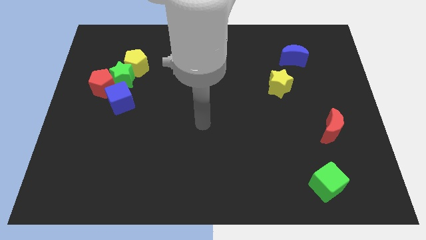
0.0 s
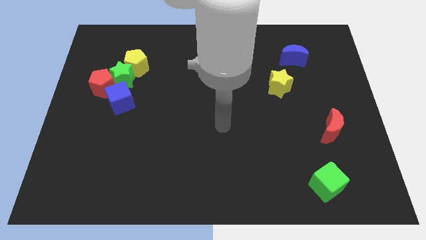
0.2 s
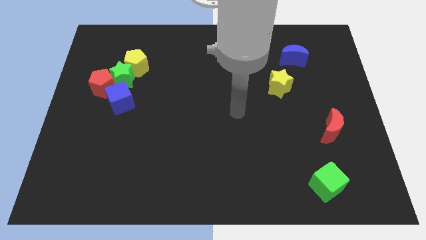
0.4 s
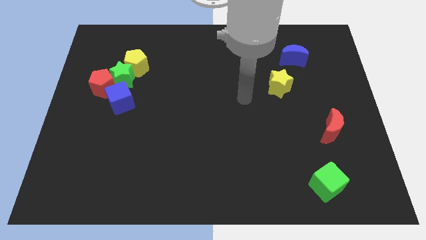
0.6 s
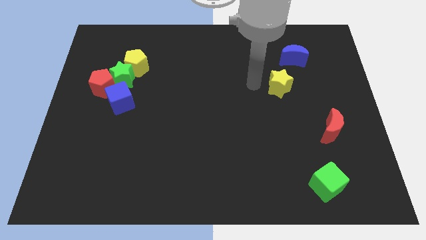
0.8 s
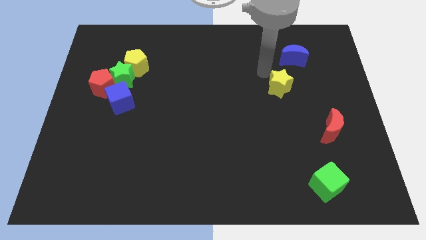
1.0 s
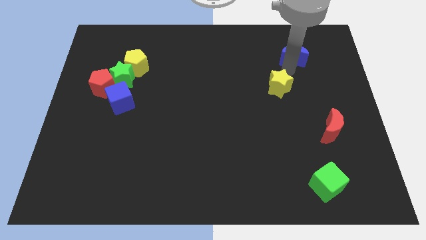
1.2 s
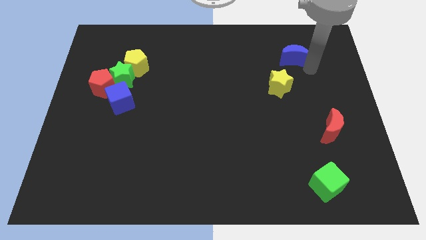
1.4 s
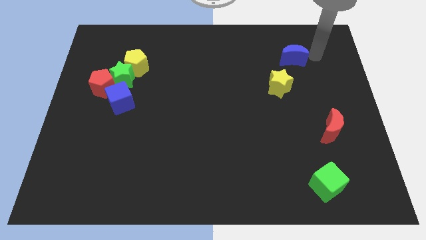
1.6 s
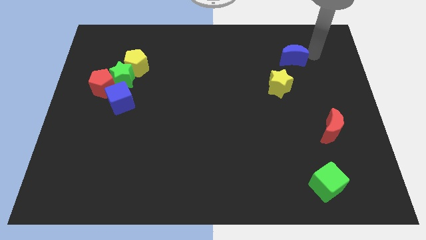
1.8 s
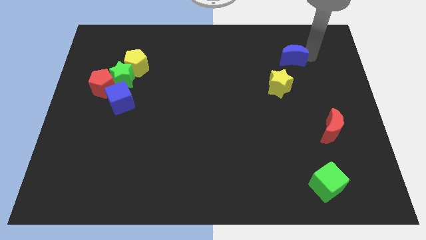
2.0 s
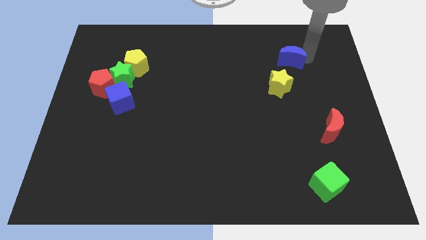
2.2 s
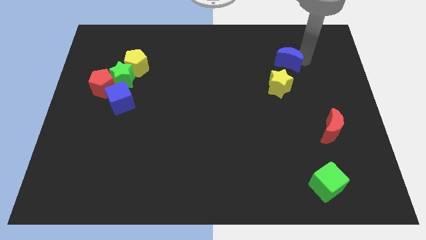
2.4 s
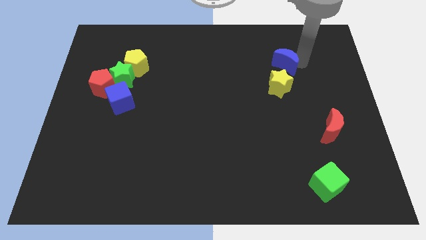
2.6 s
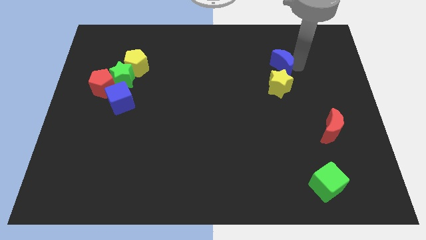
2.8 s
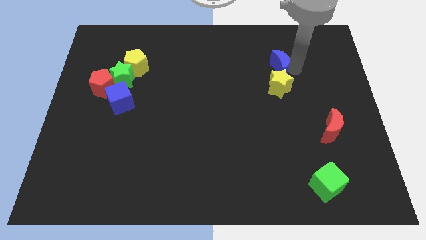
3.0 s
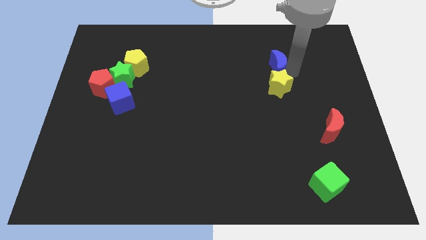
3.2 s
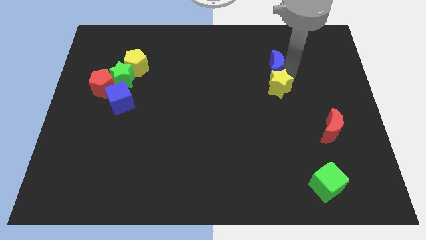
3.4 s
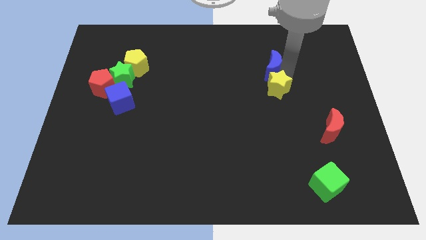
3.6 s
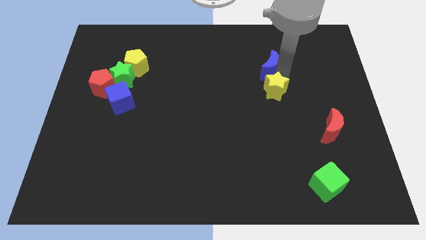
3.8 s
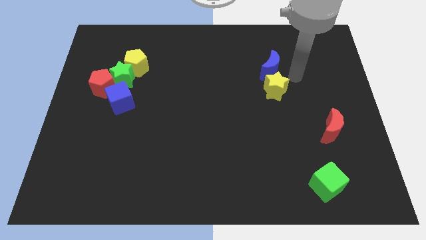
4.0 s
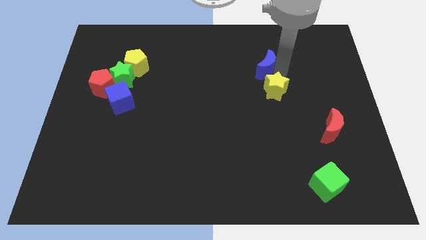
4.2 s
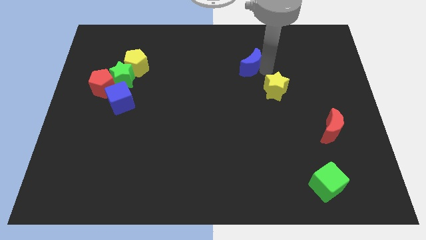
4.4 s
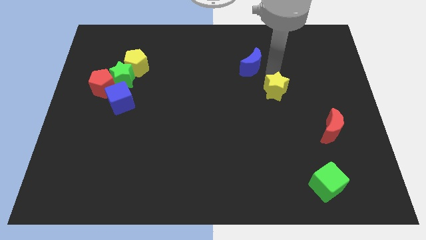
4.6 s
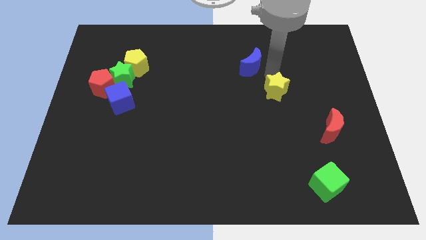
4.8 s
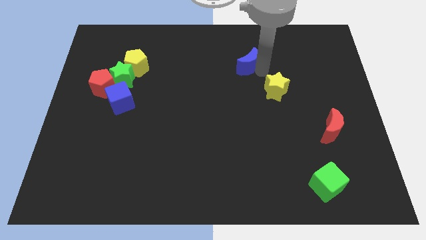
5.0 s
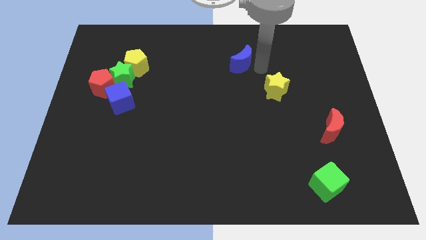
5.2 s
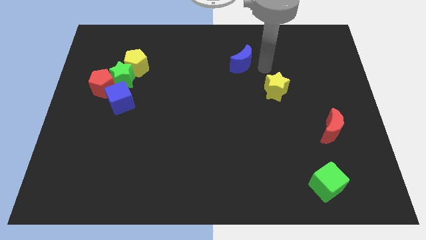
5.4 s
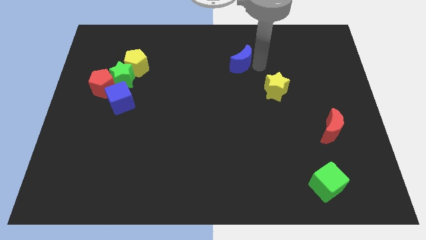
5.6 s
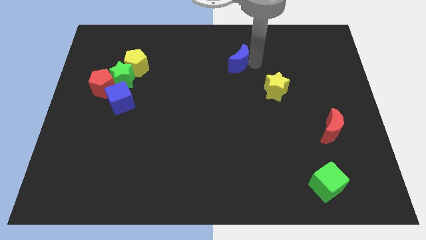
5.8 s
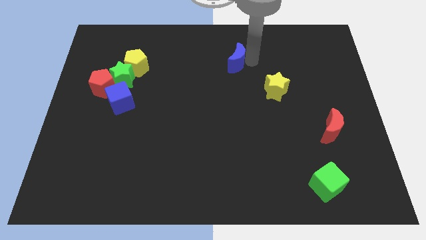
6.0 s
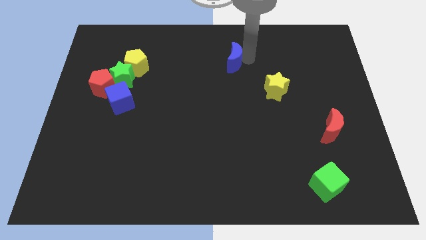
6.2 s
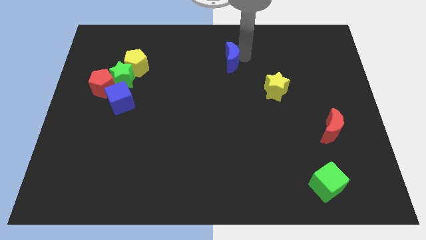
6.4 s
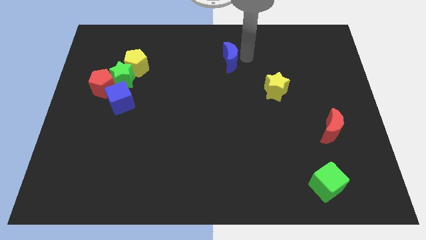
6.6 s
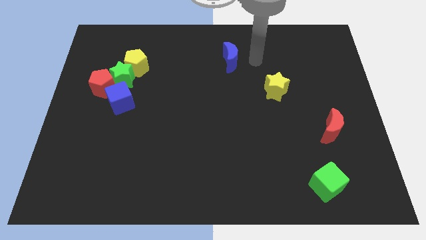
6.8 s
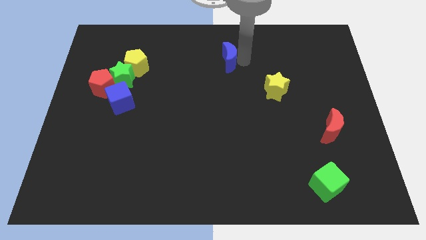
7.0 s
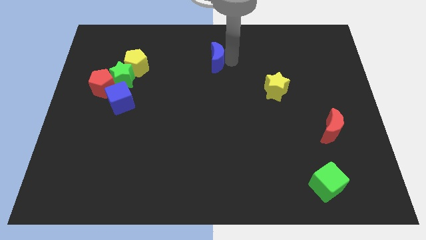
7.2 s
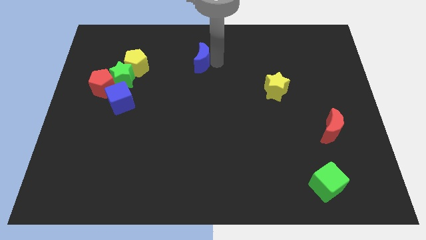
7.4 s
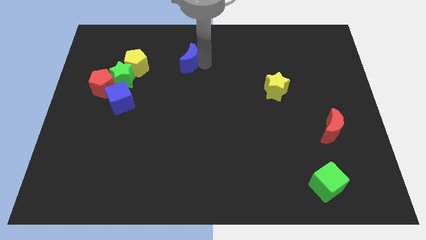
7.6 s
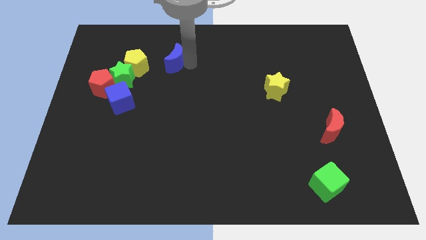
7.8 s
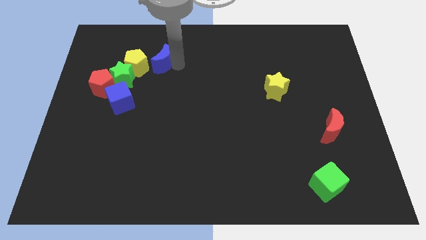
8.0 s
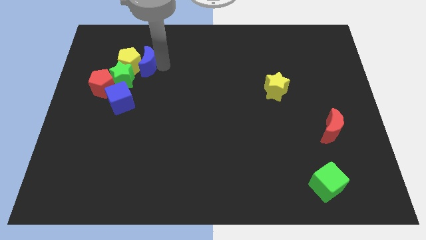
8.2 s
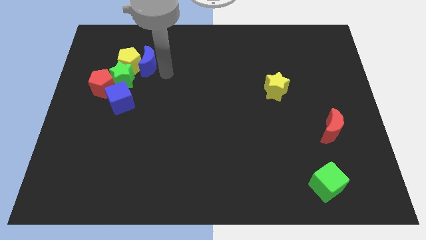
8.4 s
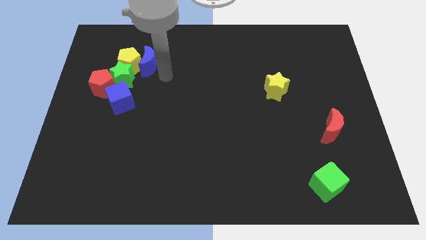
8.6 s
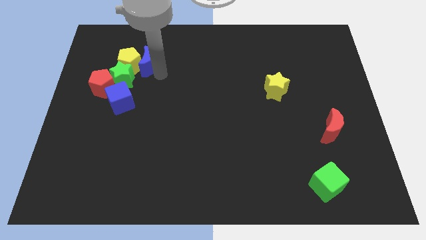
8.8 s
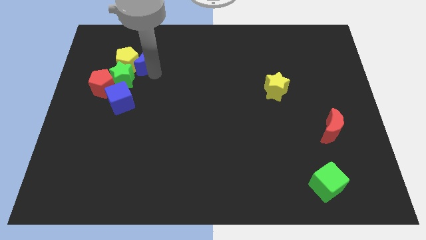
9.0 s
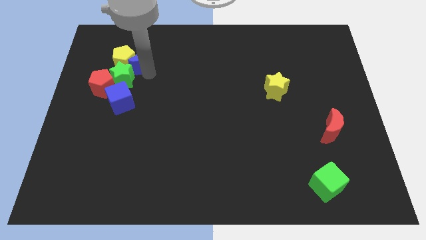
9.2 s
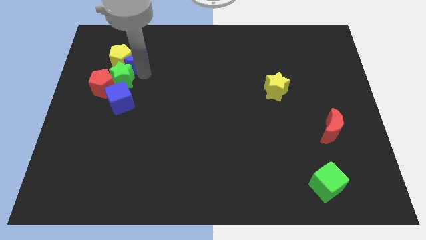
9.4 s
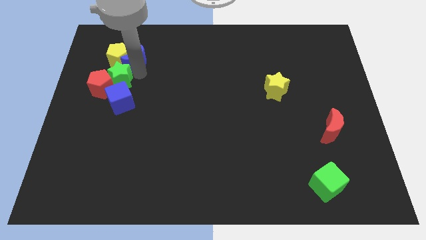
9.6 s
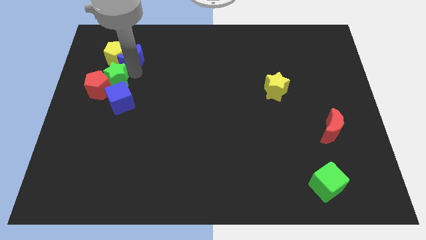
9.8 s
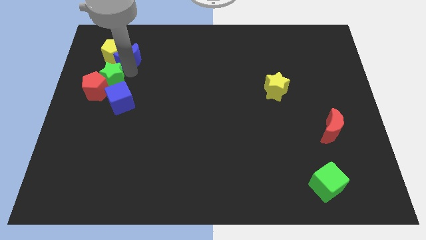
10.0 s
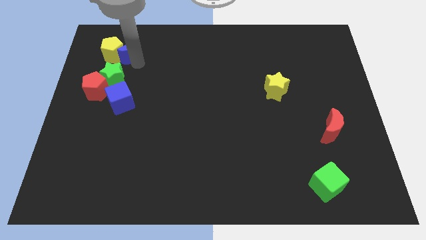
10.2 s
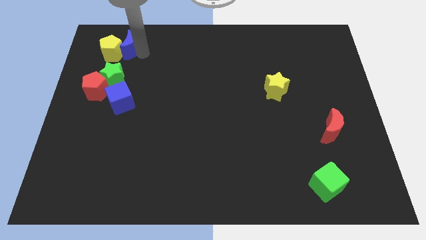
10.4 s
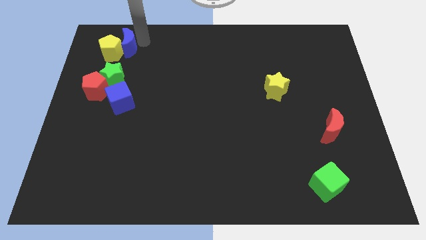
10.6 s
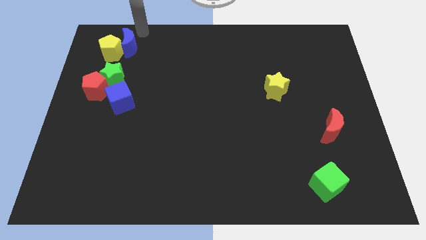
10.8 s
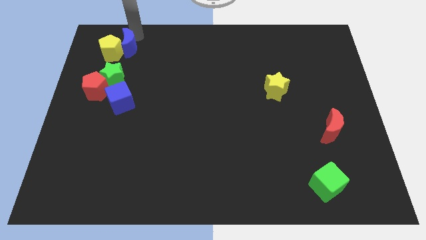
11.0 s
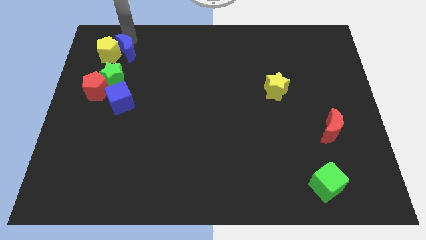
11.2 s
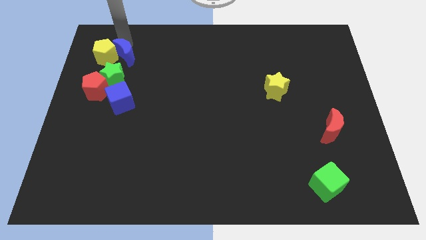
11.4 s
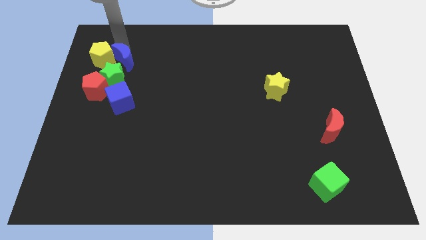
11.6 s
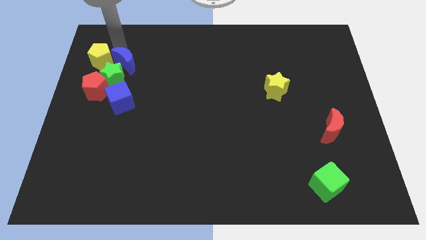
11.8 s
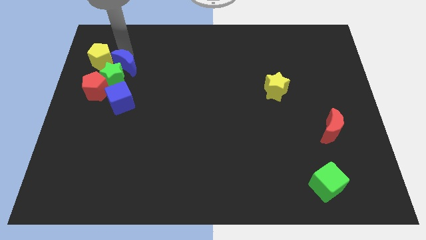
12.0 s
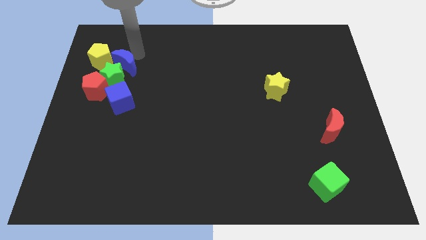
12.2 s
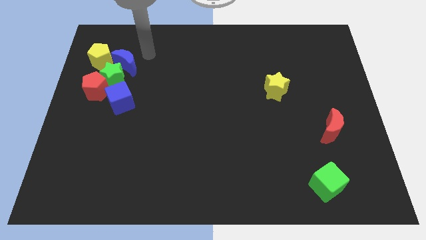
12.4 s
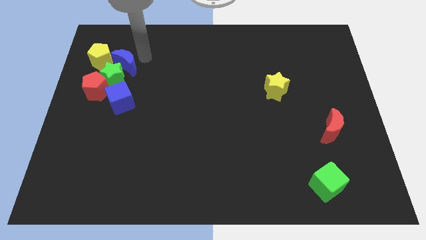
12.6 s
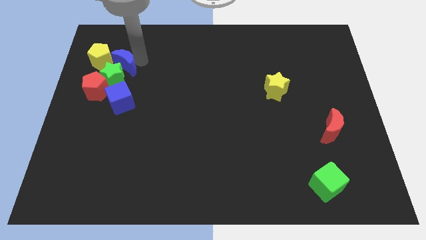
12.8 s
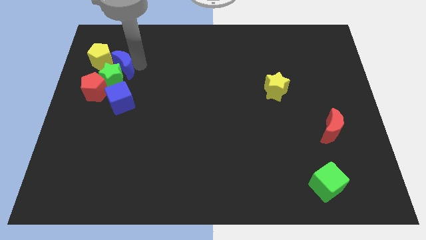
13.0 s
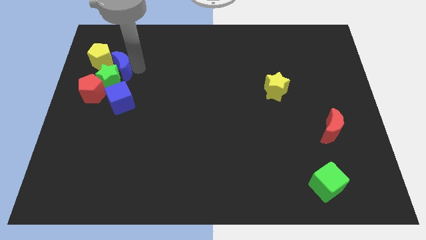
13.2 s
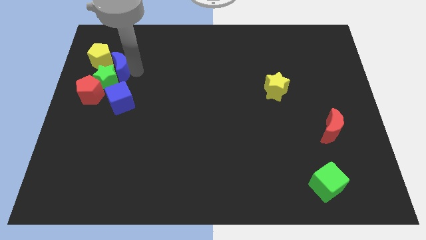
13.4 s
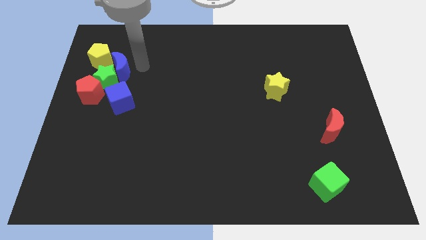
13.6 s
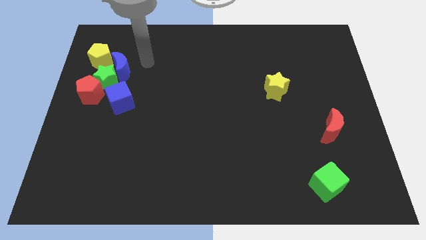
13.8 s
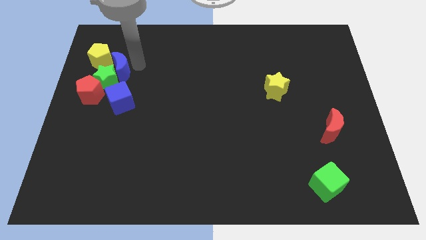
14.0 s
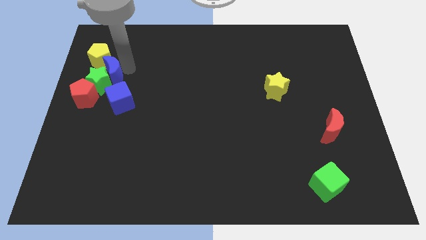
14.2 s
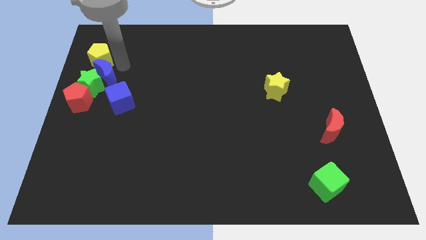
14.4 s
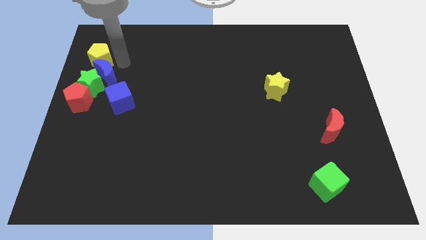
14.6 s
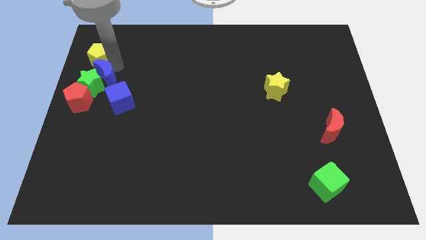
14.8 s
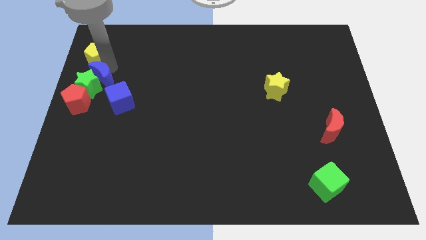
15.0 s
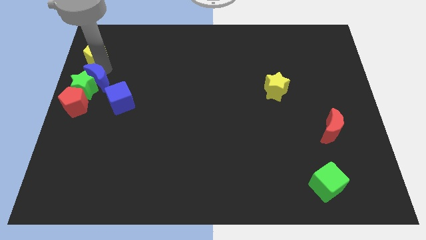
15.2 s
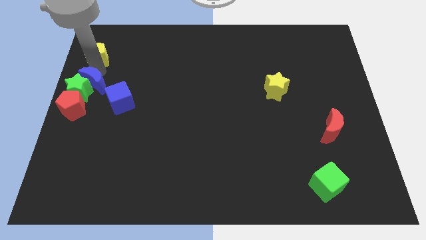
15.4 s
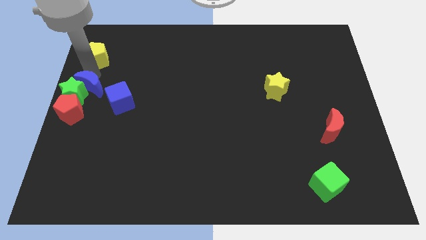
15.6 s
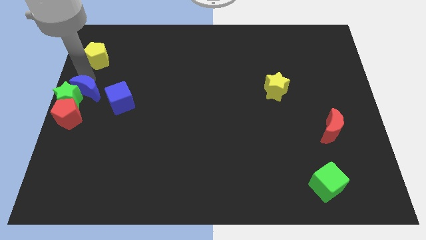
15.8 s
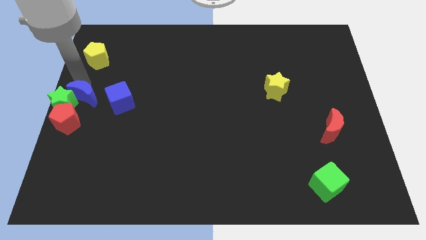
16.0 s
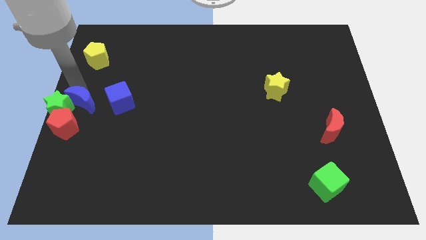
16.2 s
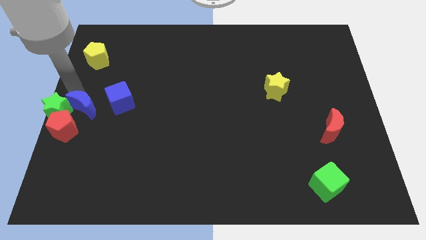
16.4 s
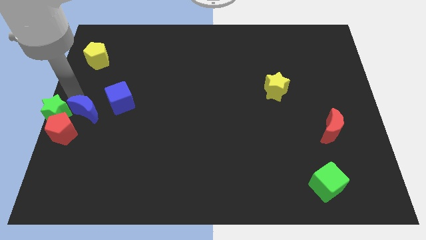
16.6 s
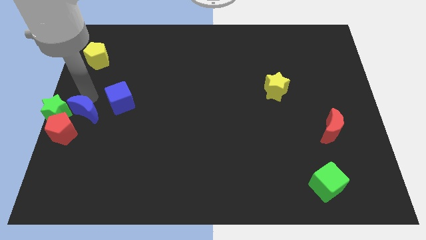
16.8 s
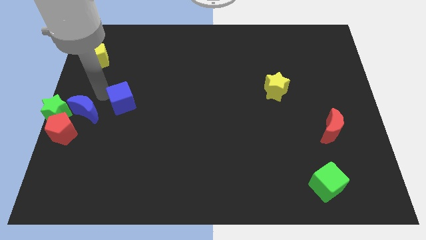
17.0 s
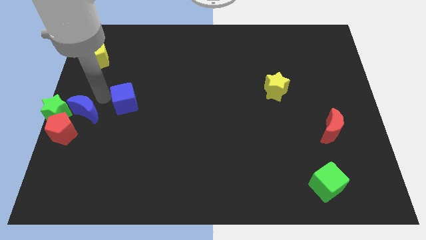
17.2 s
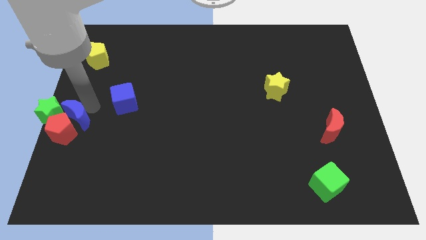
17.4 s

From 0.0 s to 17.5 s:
move the blue moon next to the red pentagon
